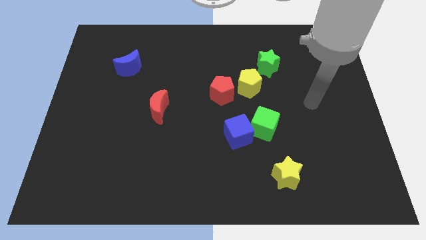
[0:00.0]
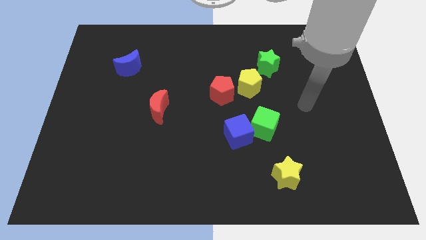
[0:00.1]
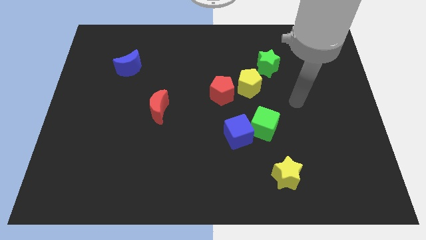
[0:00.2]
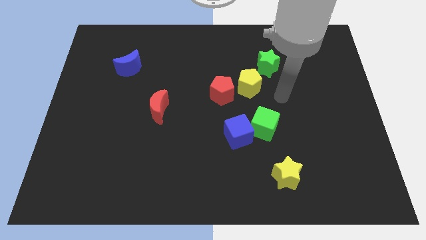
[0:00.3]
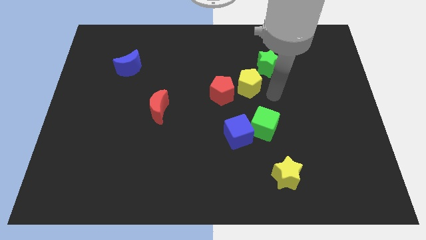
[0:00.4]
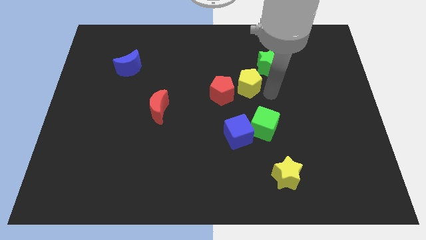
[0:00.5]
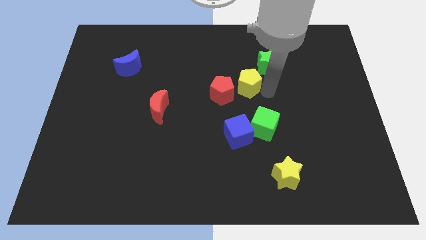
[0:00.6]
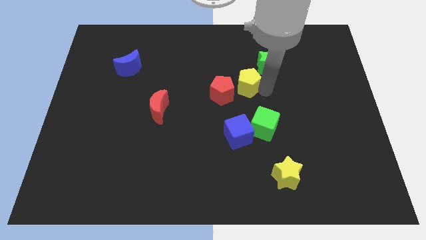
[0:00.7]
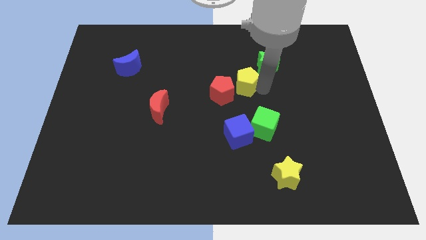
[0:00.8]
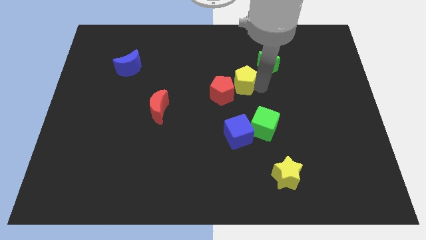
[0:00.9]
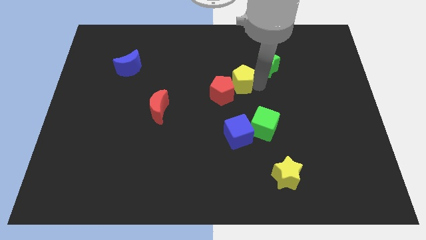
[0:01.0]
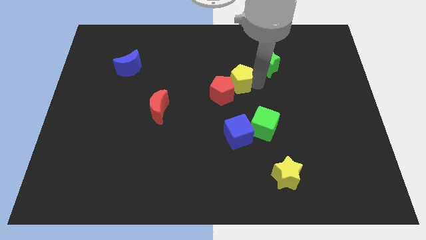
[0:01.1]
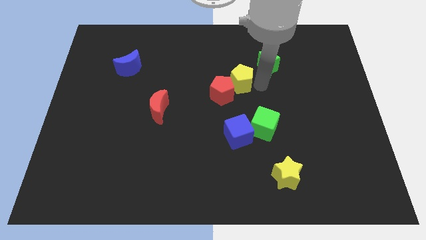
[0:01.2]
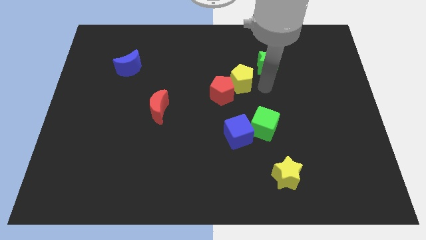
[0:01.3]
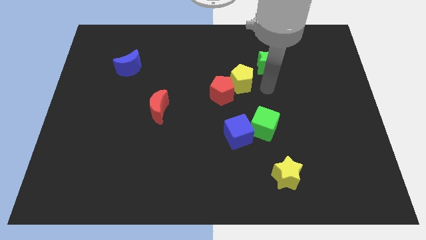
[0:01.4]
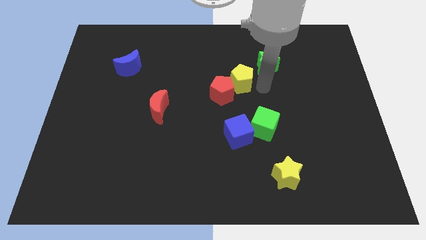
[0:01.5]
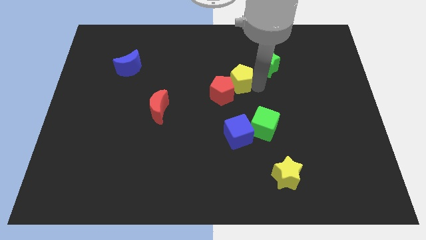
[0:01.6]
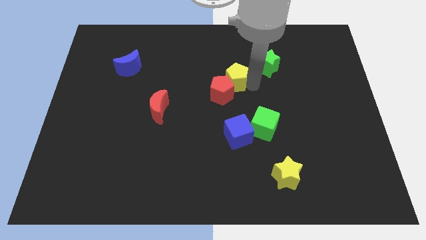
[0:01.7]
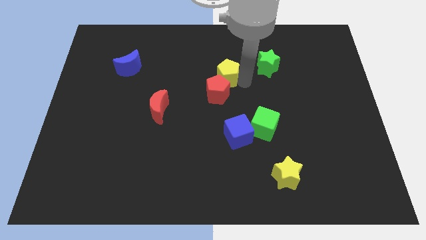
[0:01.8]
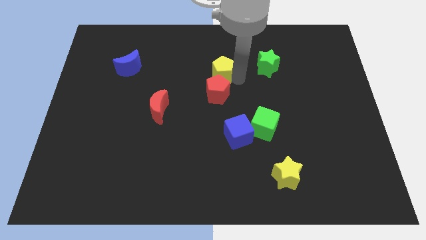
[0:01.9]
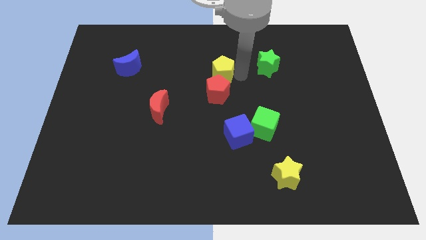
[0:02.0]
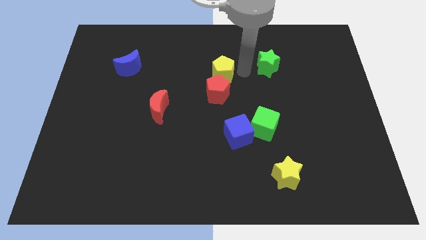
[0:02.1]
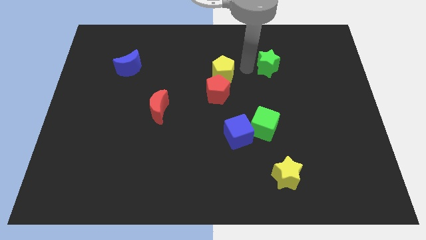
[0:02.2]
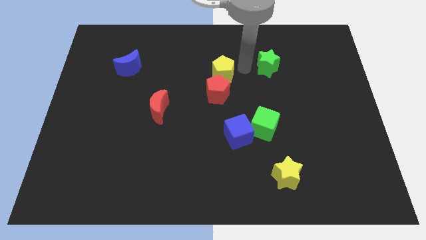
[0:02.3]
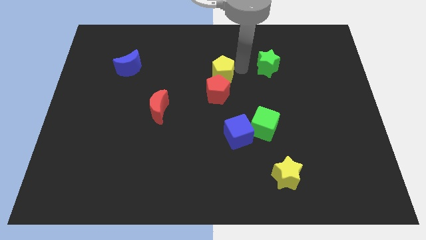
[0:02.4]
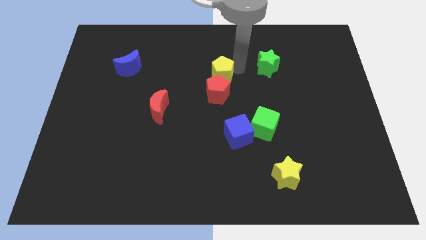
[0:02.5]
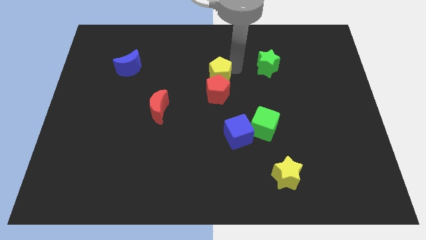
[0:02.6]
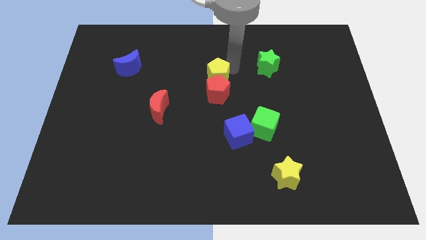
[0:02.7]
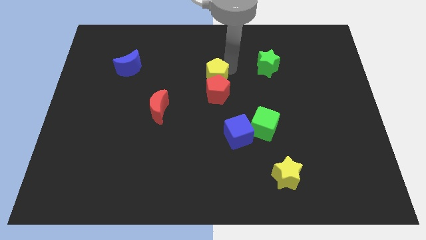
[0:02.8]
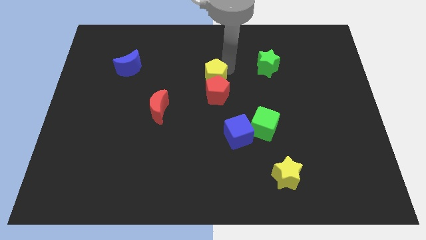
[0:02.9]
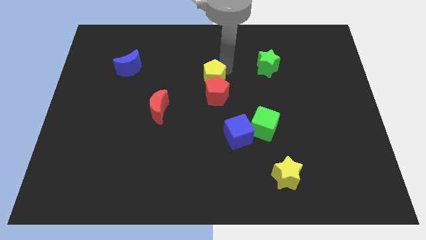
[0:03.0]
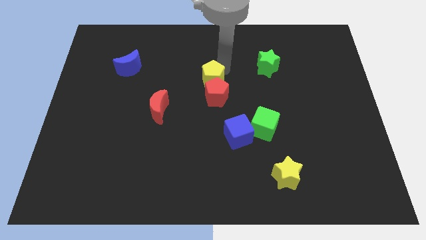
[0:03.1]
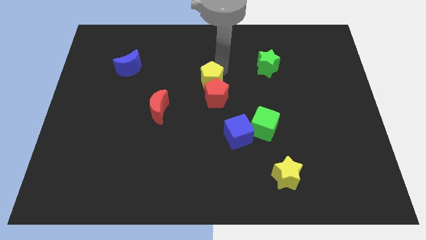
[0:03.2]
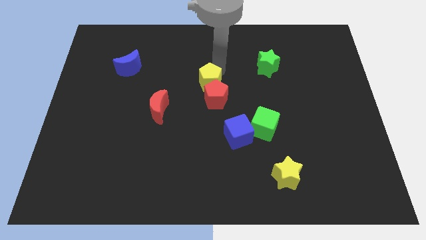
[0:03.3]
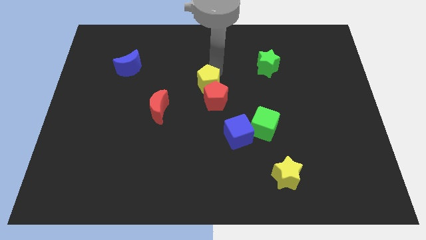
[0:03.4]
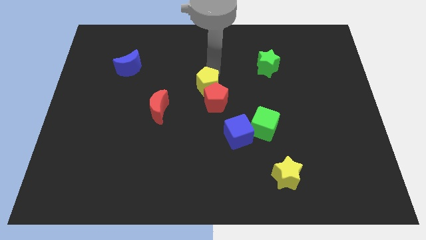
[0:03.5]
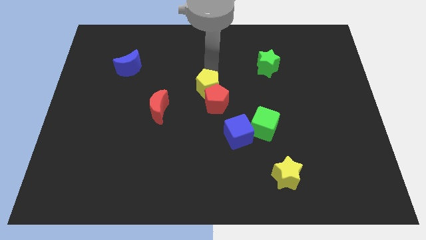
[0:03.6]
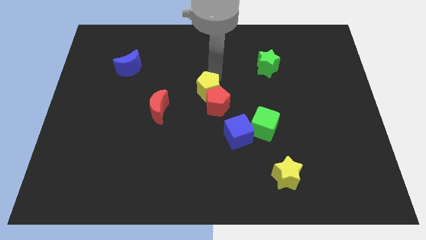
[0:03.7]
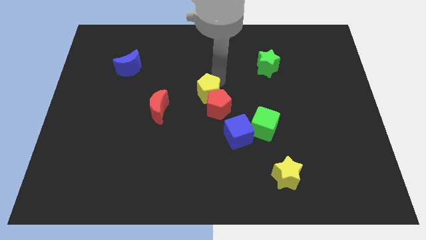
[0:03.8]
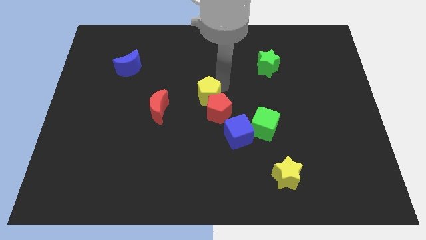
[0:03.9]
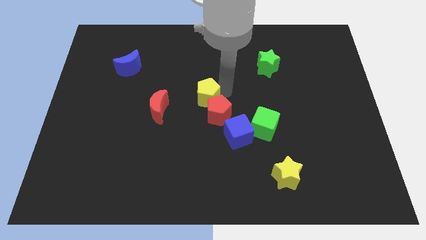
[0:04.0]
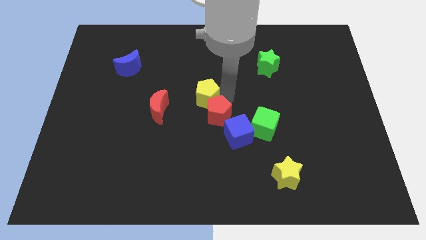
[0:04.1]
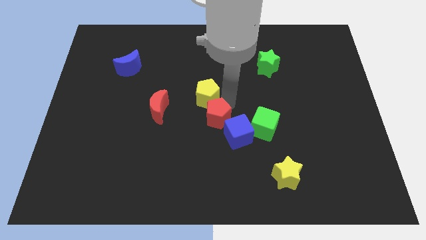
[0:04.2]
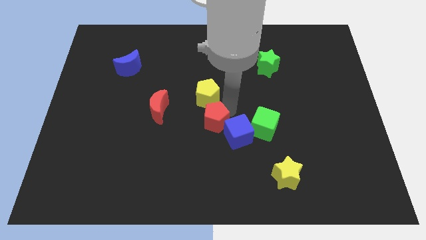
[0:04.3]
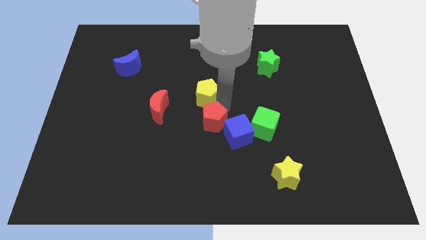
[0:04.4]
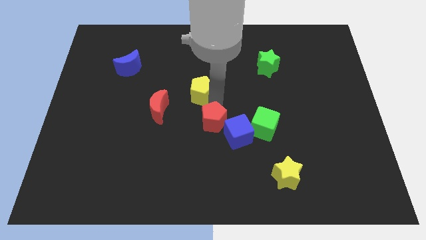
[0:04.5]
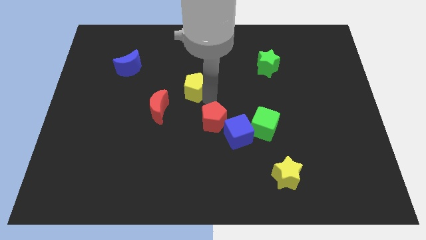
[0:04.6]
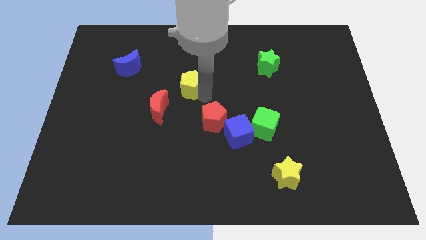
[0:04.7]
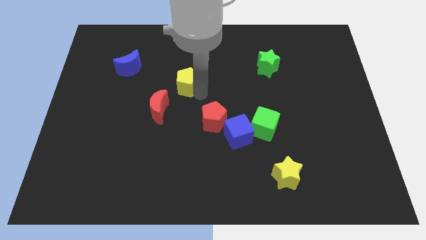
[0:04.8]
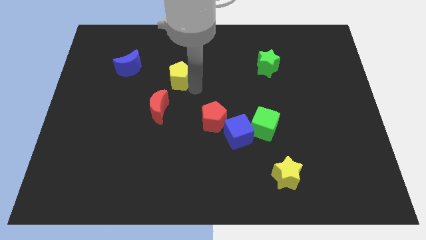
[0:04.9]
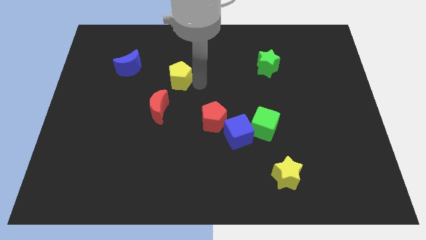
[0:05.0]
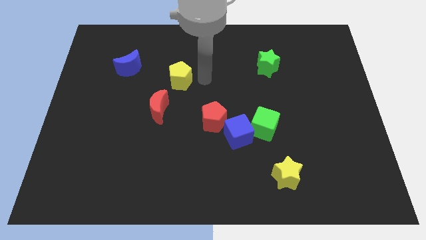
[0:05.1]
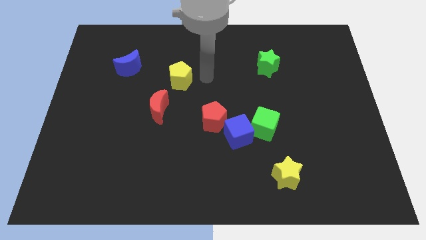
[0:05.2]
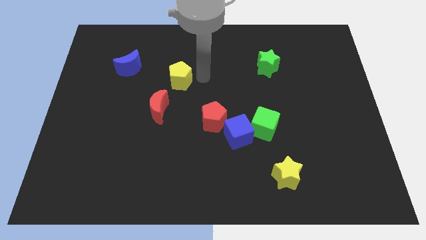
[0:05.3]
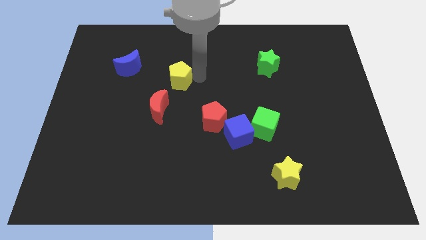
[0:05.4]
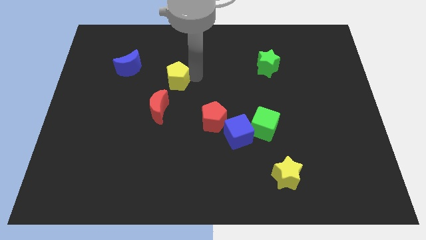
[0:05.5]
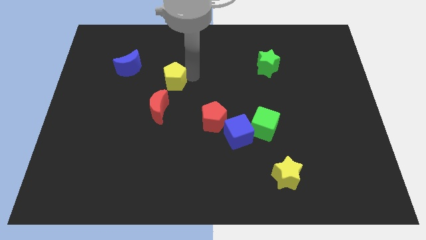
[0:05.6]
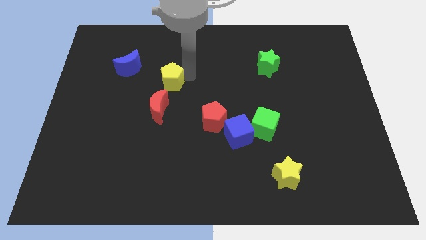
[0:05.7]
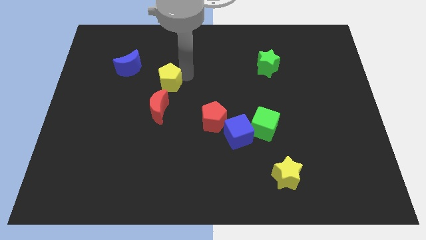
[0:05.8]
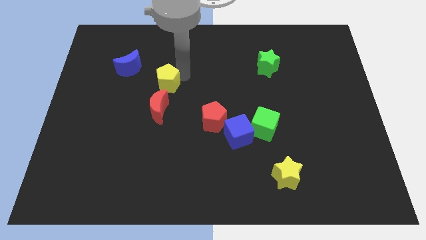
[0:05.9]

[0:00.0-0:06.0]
slide the yellow pentagon to the bottom right of the blue moon
